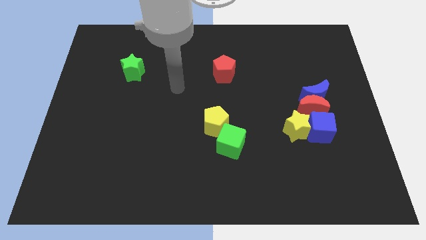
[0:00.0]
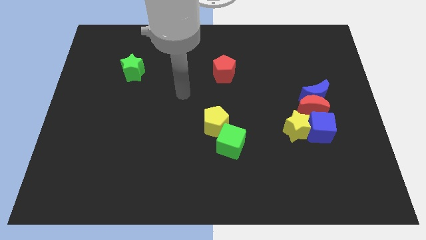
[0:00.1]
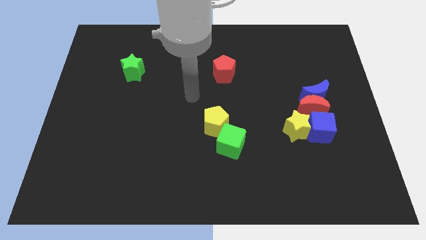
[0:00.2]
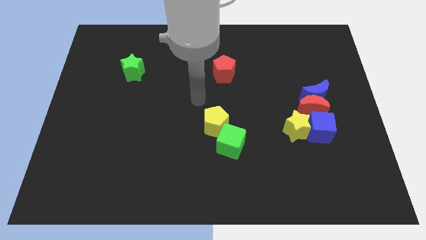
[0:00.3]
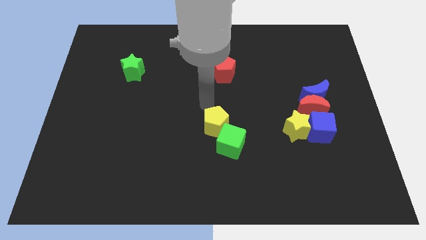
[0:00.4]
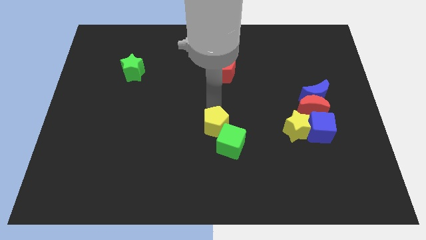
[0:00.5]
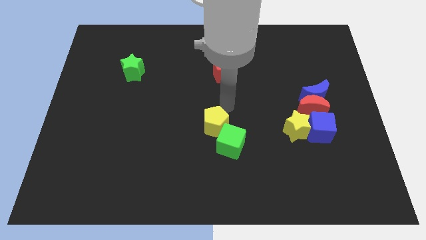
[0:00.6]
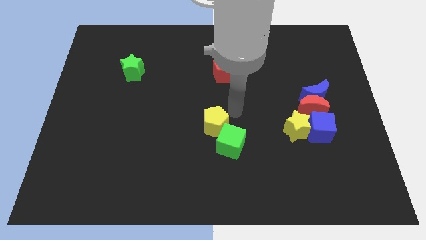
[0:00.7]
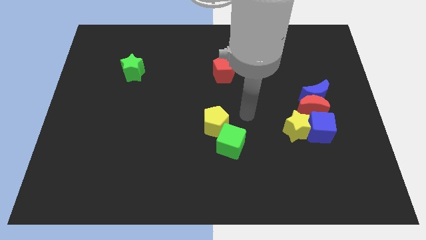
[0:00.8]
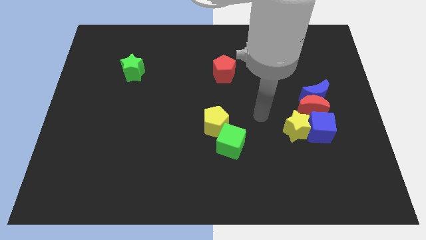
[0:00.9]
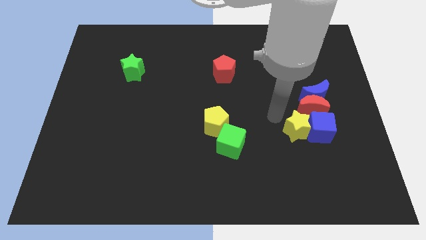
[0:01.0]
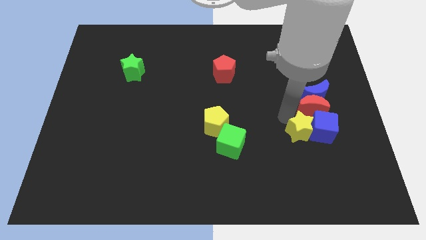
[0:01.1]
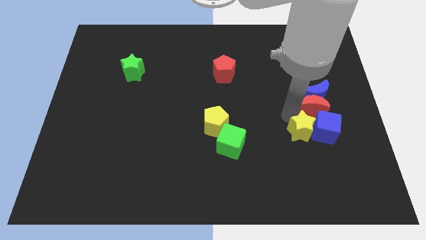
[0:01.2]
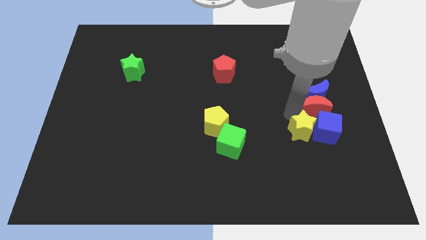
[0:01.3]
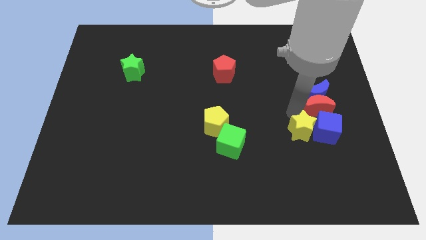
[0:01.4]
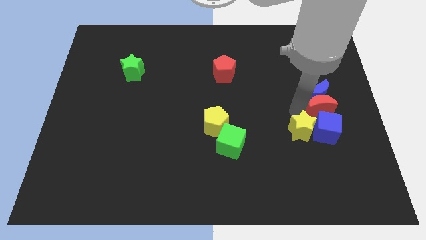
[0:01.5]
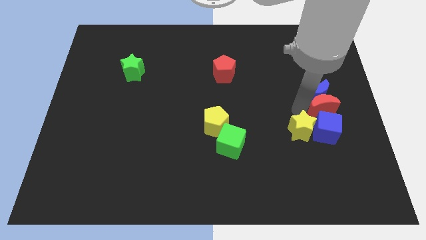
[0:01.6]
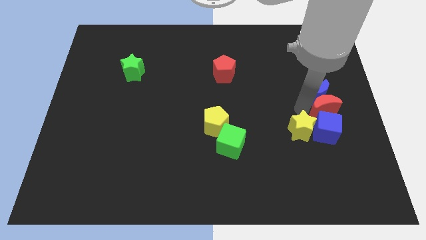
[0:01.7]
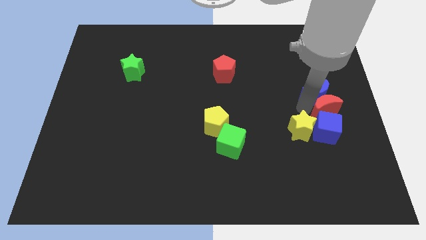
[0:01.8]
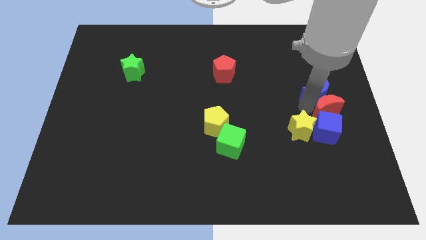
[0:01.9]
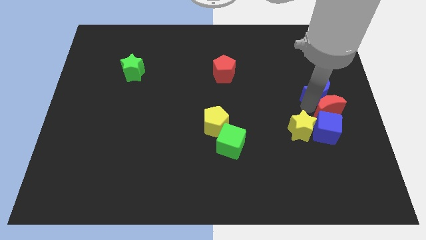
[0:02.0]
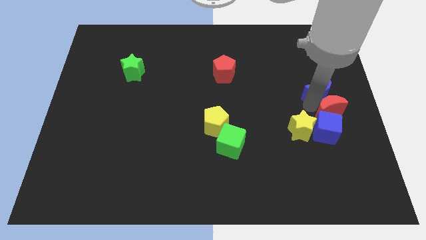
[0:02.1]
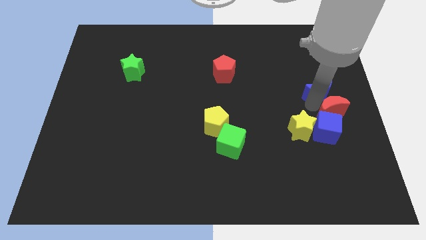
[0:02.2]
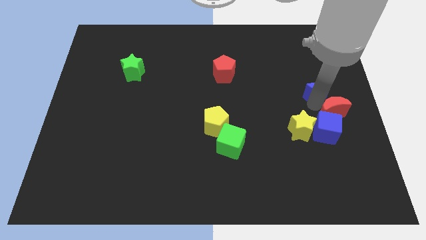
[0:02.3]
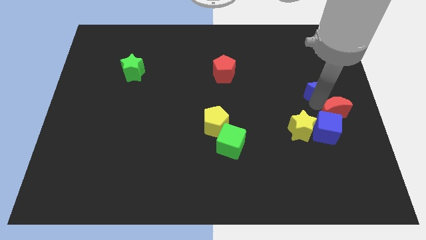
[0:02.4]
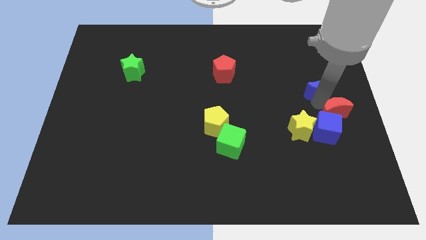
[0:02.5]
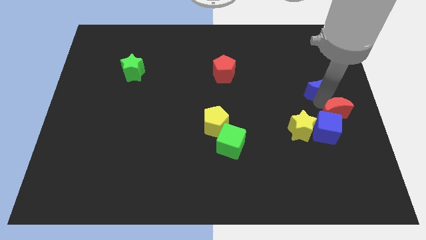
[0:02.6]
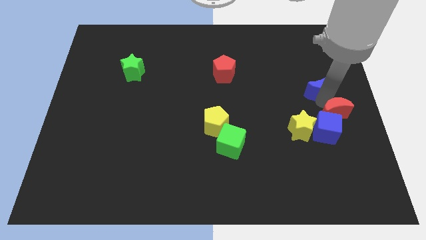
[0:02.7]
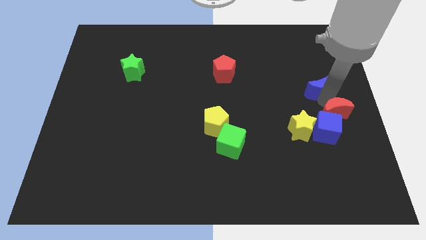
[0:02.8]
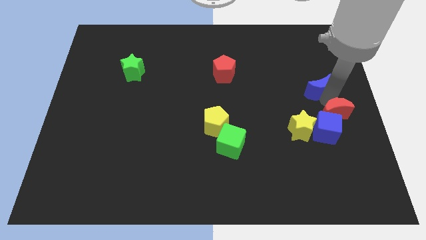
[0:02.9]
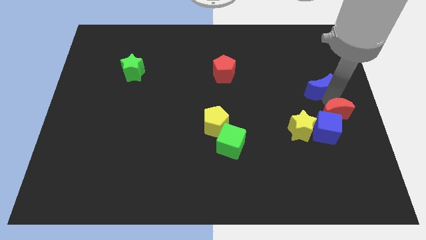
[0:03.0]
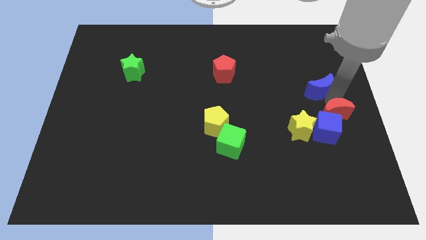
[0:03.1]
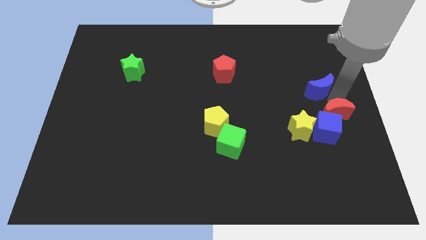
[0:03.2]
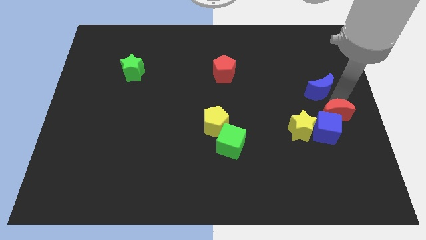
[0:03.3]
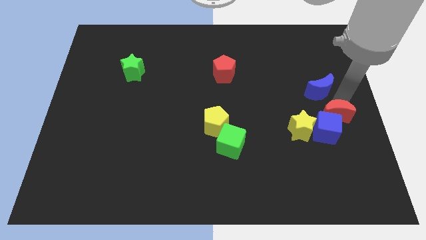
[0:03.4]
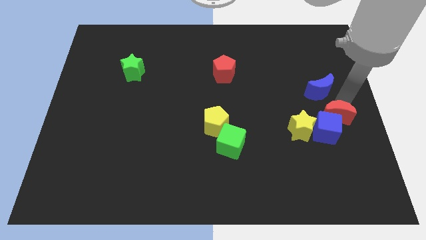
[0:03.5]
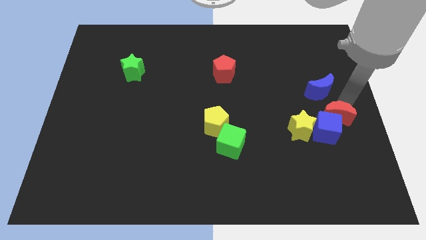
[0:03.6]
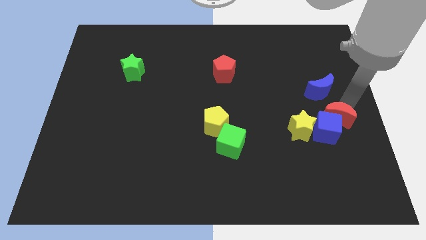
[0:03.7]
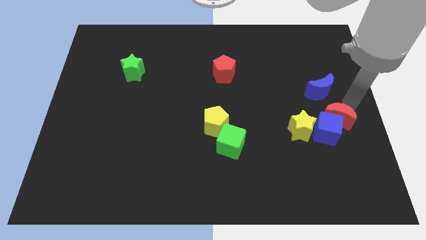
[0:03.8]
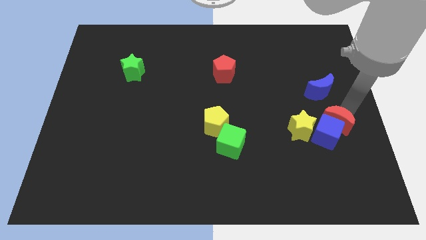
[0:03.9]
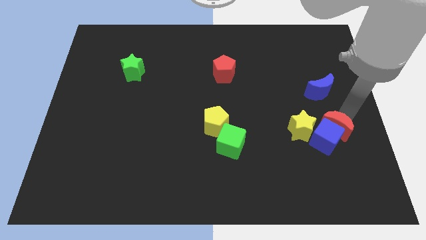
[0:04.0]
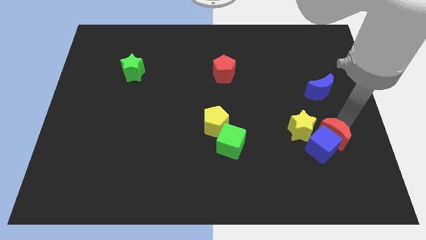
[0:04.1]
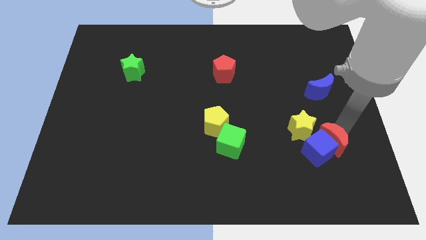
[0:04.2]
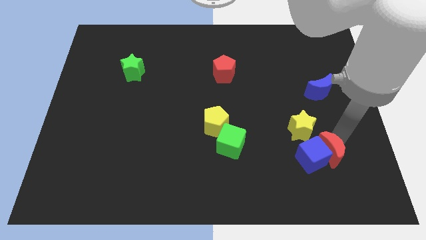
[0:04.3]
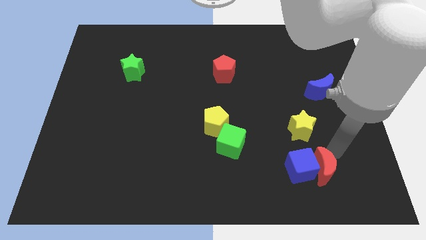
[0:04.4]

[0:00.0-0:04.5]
pull the red moon apart from the group

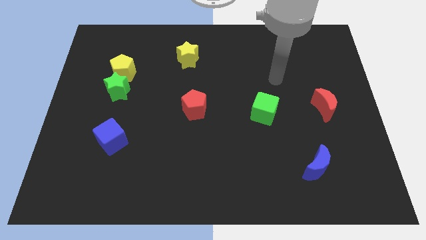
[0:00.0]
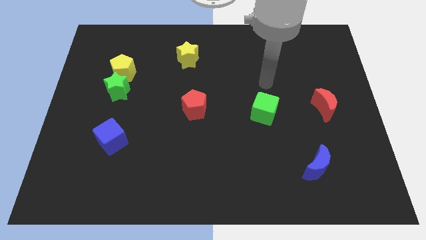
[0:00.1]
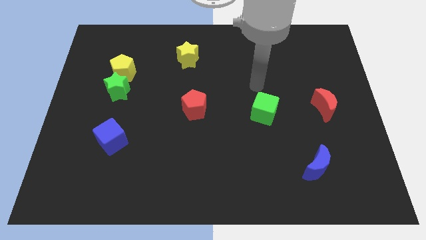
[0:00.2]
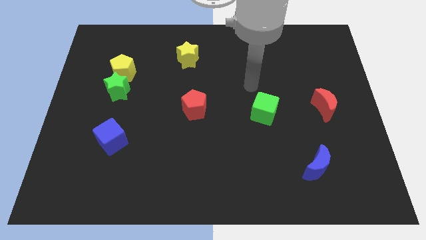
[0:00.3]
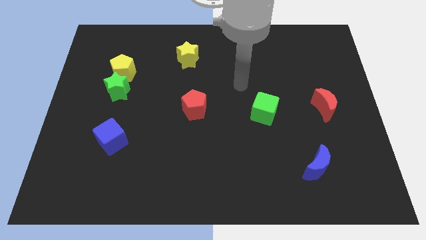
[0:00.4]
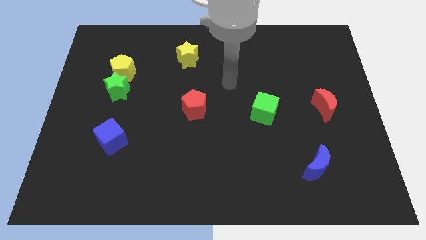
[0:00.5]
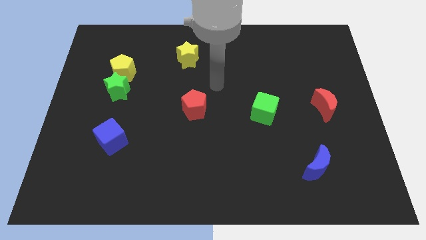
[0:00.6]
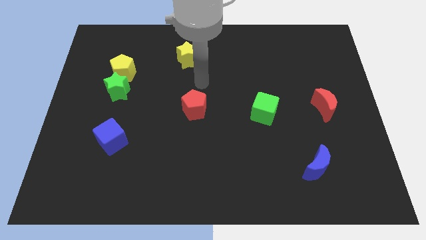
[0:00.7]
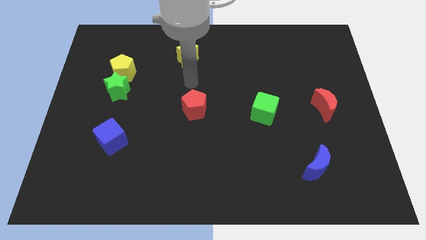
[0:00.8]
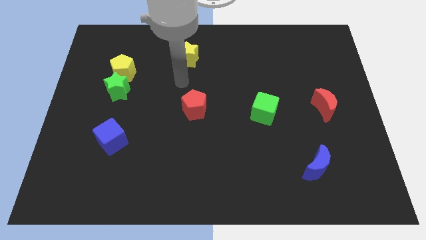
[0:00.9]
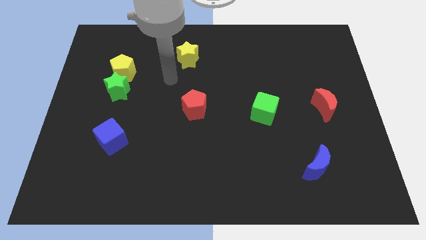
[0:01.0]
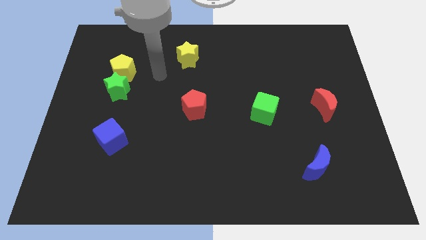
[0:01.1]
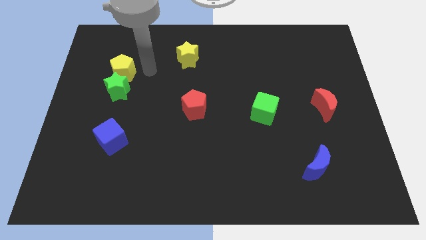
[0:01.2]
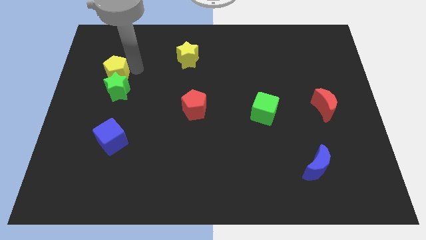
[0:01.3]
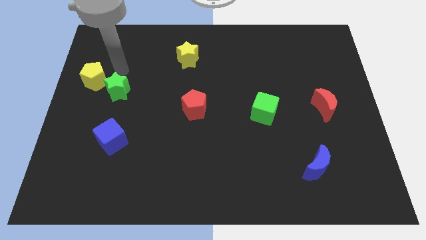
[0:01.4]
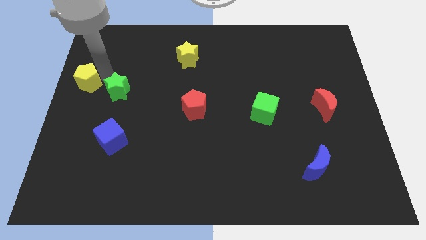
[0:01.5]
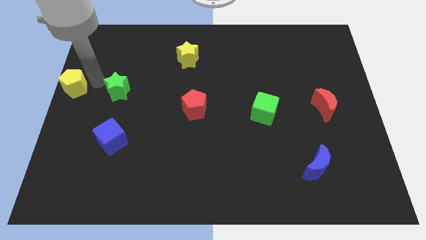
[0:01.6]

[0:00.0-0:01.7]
pull the green star apart from the yellow pentagon

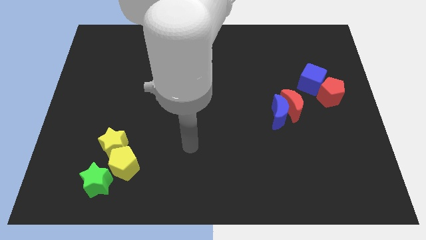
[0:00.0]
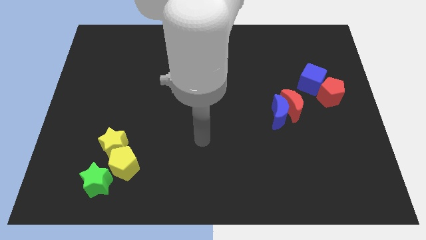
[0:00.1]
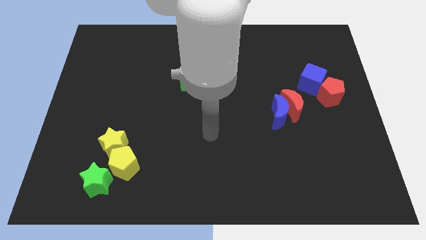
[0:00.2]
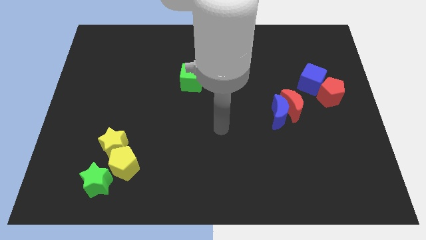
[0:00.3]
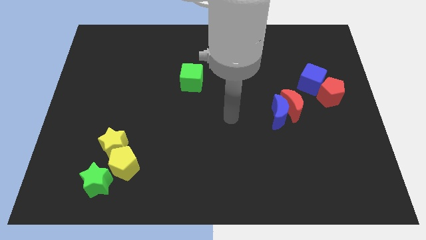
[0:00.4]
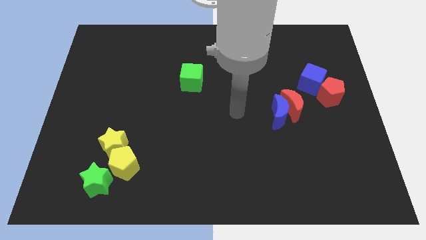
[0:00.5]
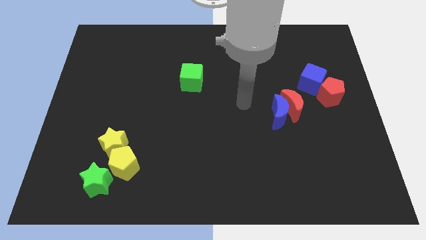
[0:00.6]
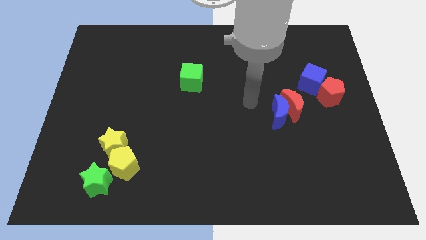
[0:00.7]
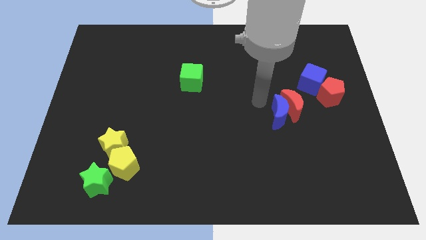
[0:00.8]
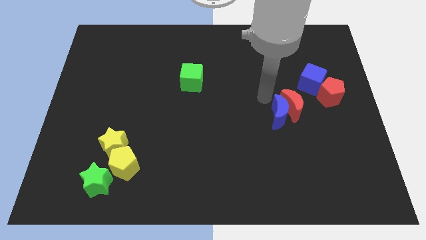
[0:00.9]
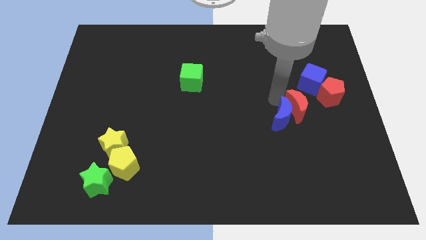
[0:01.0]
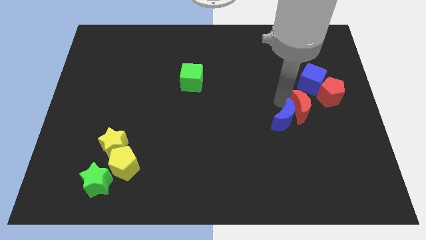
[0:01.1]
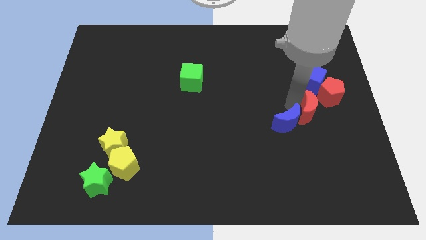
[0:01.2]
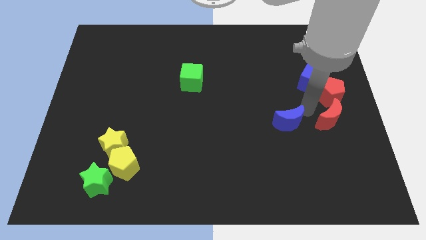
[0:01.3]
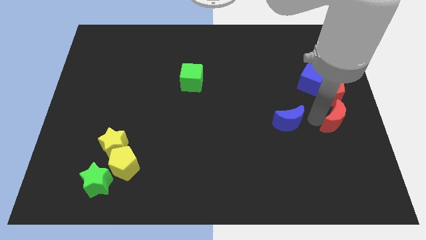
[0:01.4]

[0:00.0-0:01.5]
move the blue moon away from the red moon

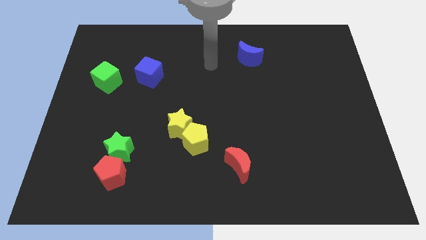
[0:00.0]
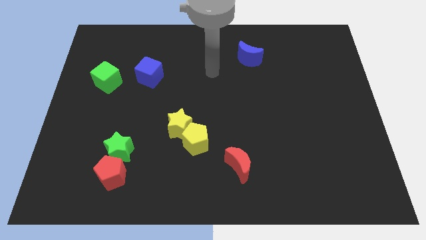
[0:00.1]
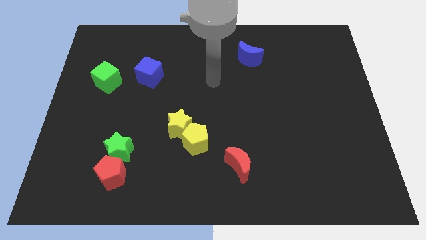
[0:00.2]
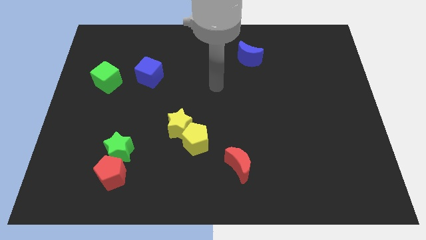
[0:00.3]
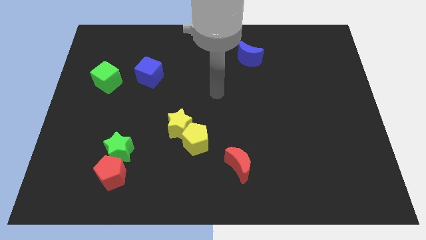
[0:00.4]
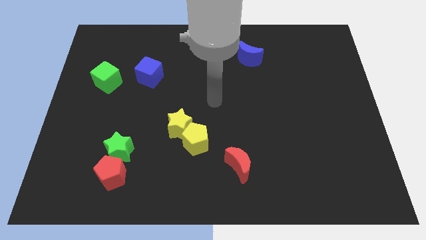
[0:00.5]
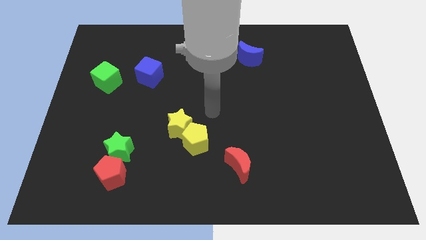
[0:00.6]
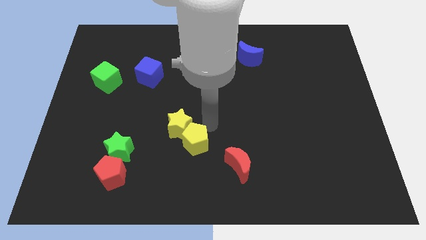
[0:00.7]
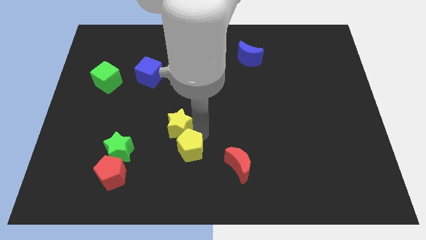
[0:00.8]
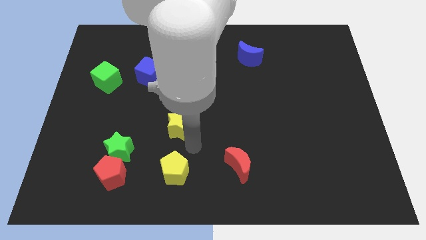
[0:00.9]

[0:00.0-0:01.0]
separate the yellow star from the yellow pentagon

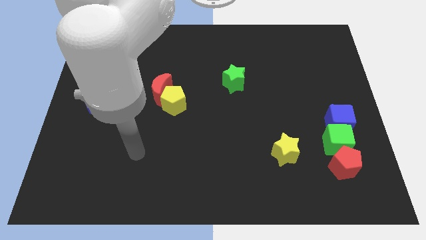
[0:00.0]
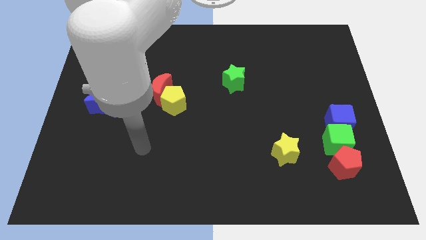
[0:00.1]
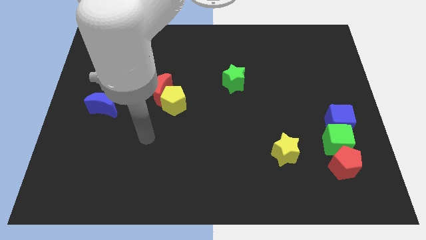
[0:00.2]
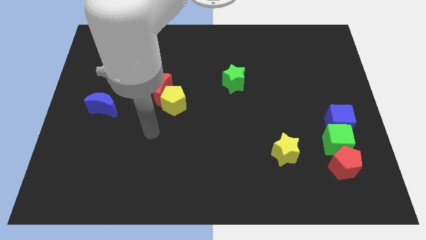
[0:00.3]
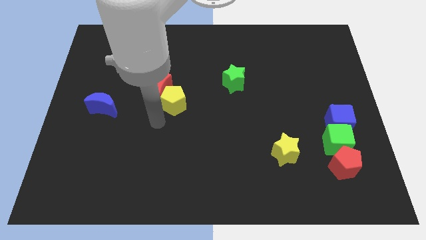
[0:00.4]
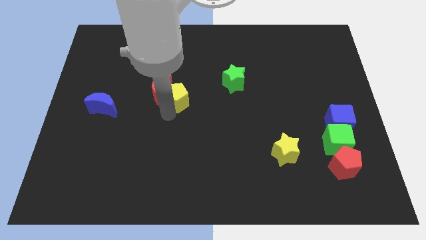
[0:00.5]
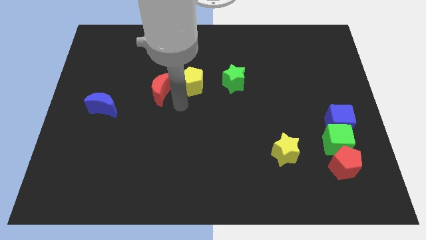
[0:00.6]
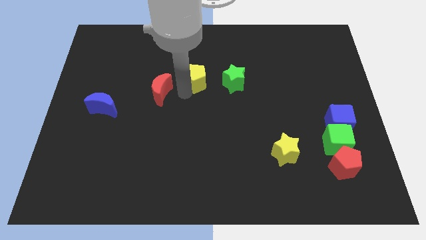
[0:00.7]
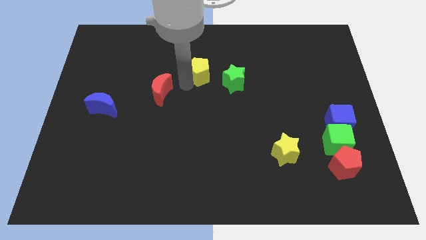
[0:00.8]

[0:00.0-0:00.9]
pull the red moon apart from the yellow pentagon
